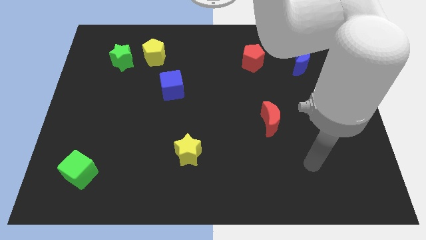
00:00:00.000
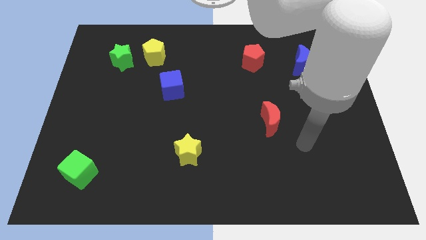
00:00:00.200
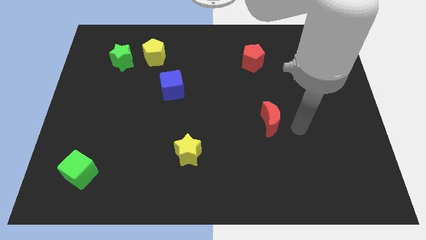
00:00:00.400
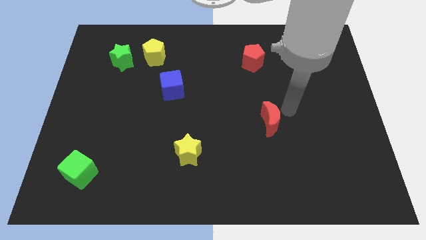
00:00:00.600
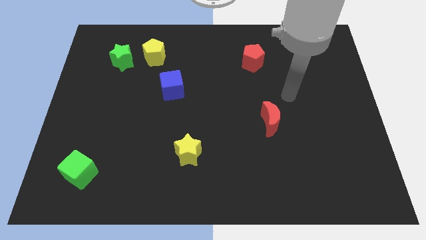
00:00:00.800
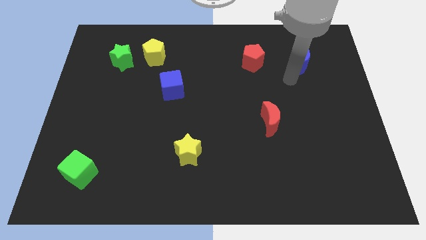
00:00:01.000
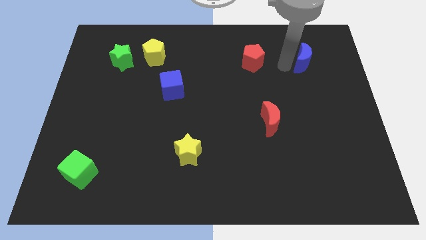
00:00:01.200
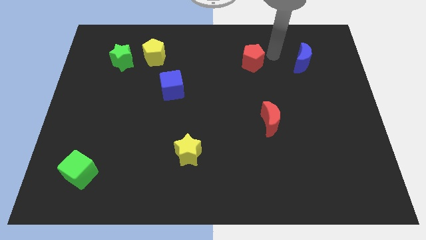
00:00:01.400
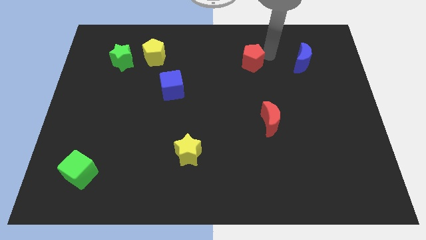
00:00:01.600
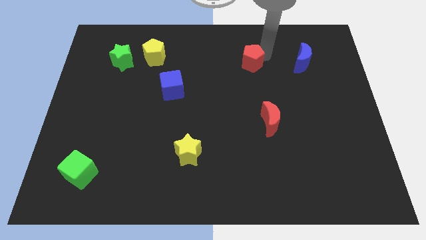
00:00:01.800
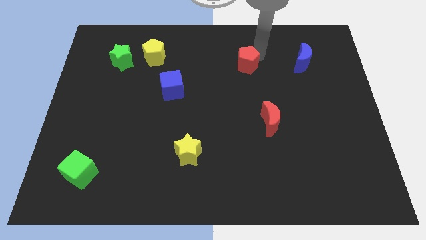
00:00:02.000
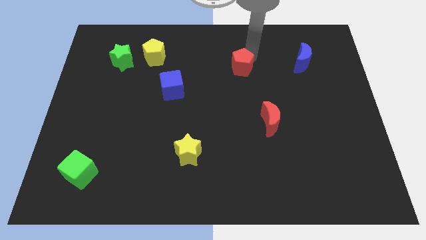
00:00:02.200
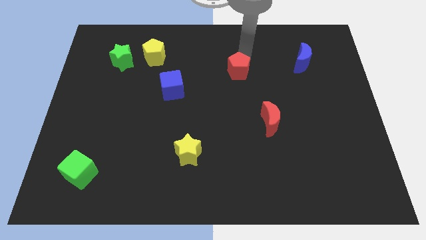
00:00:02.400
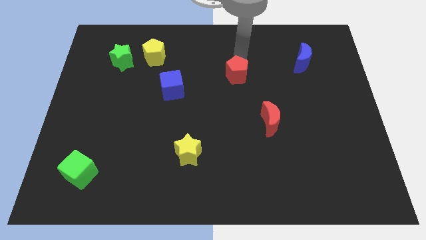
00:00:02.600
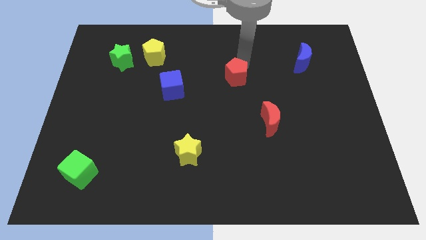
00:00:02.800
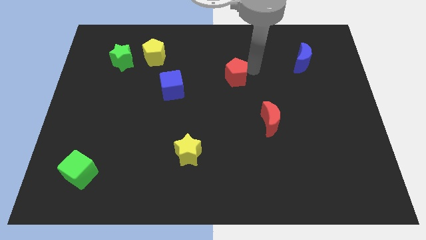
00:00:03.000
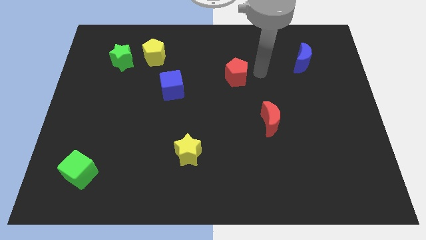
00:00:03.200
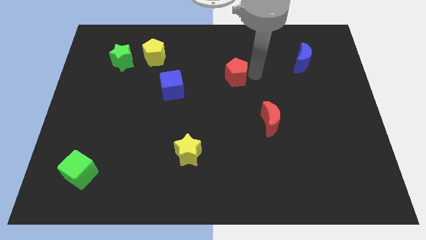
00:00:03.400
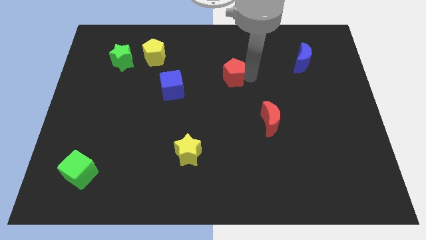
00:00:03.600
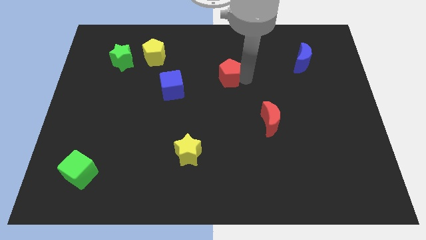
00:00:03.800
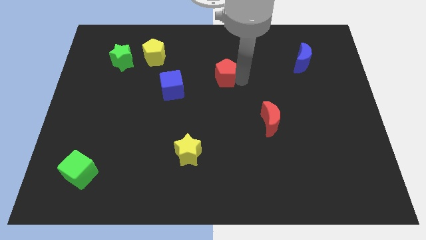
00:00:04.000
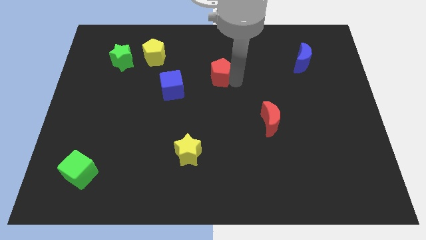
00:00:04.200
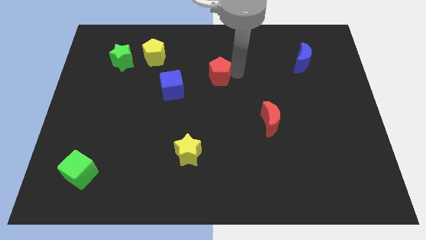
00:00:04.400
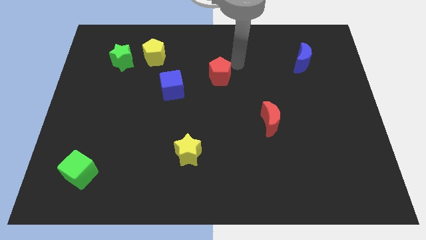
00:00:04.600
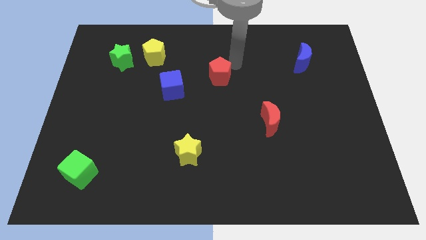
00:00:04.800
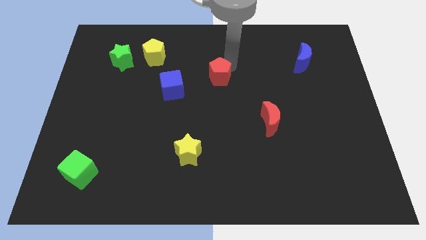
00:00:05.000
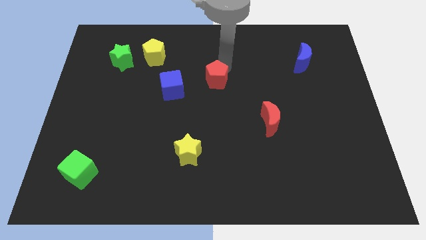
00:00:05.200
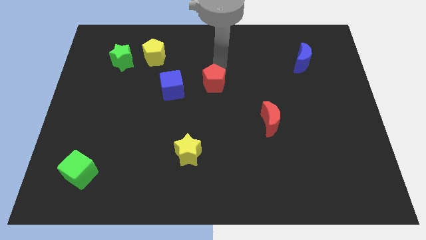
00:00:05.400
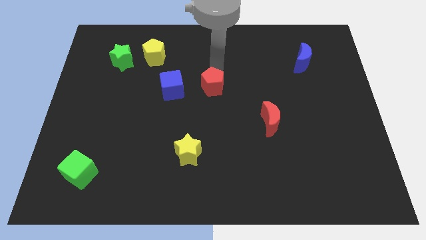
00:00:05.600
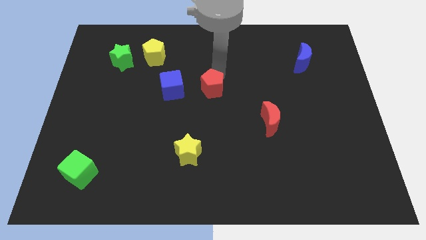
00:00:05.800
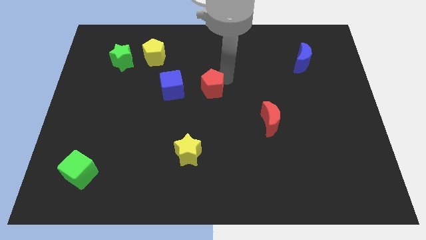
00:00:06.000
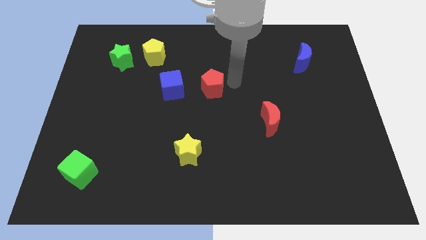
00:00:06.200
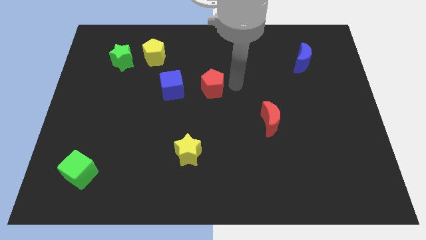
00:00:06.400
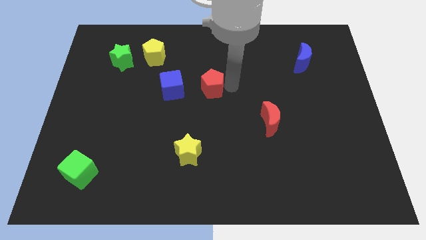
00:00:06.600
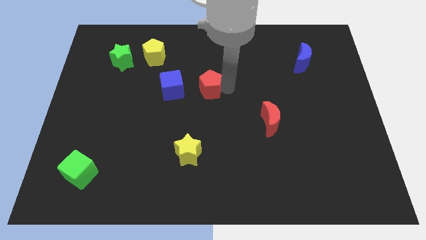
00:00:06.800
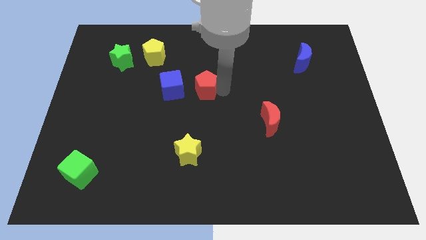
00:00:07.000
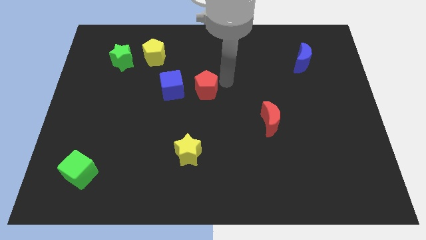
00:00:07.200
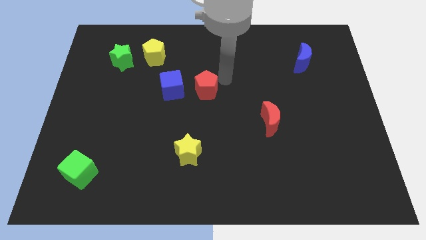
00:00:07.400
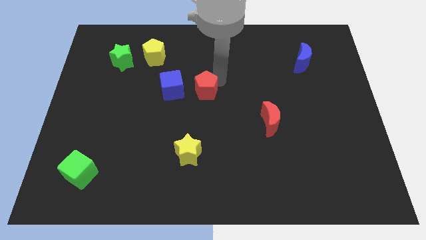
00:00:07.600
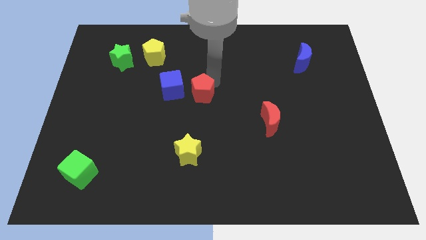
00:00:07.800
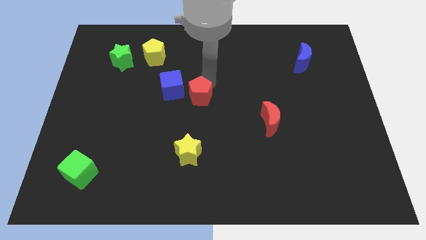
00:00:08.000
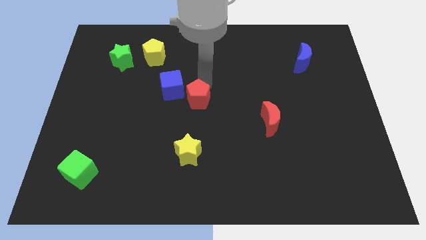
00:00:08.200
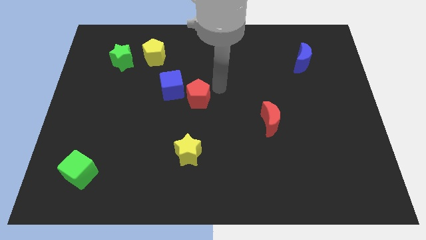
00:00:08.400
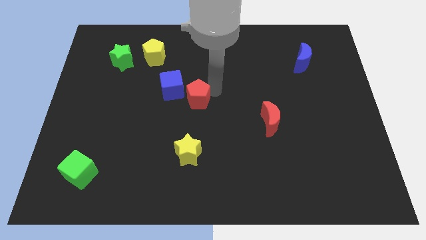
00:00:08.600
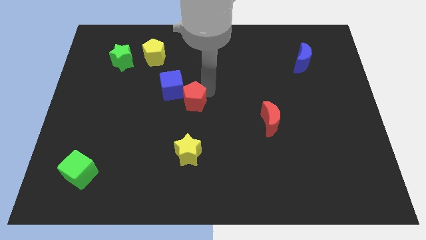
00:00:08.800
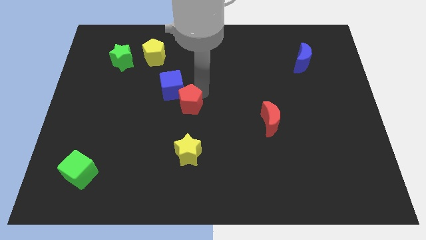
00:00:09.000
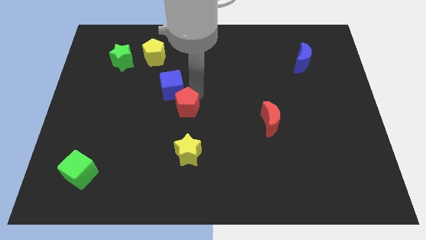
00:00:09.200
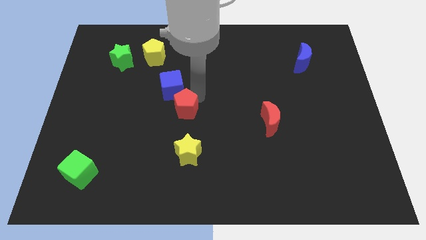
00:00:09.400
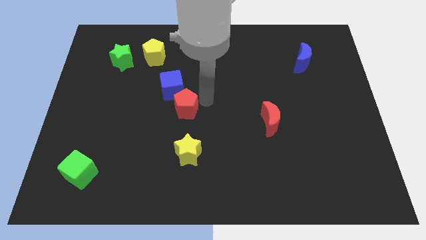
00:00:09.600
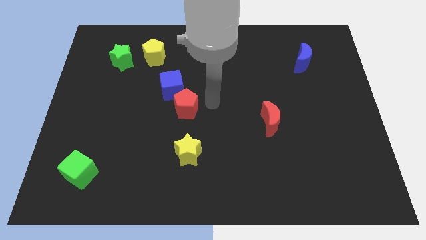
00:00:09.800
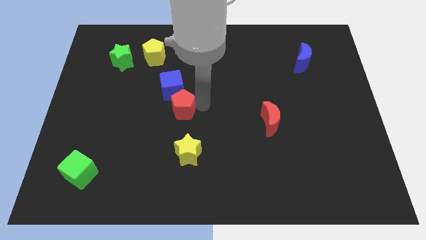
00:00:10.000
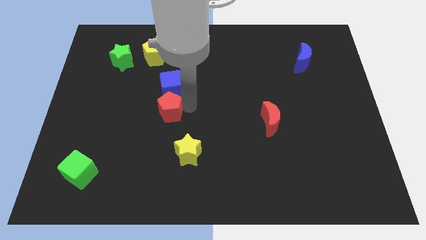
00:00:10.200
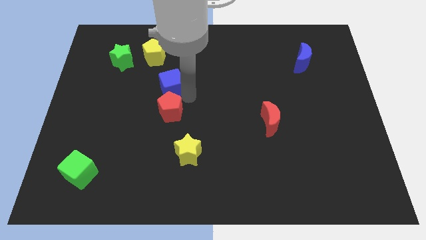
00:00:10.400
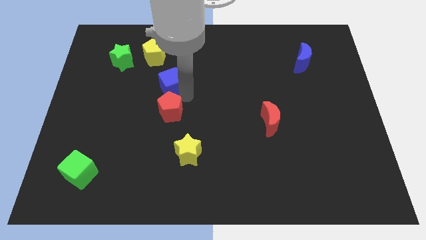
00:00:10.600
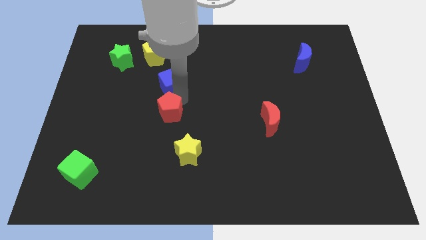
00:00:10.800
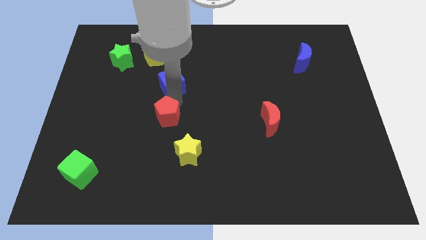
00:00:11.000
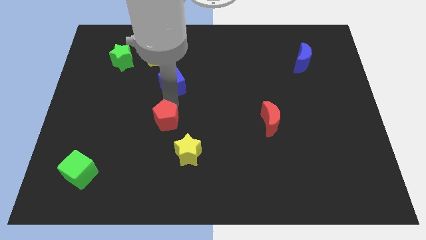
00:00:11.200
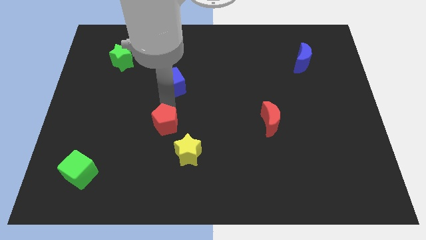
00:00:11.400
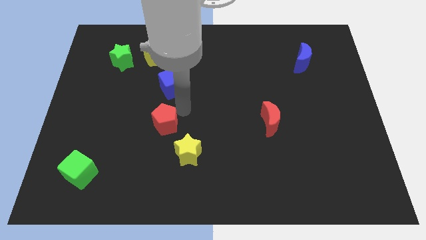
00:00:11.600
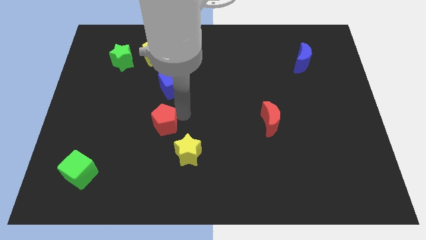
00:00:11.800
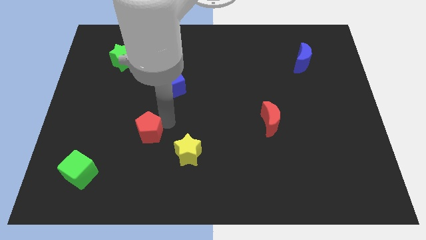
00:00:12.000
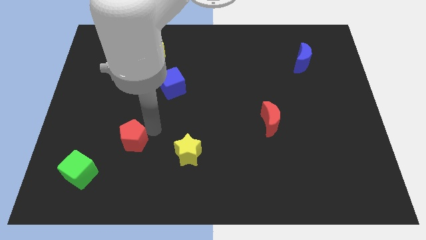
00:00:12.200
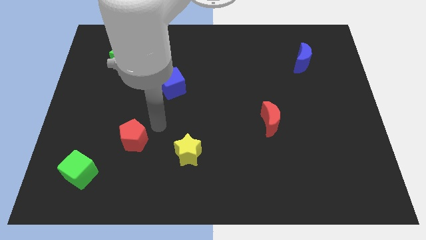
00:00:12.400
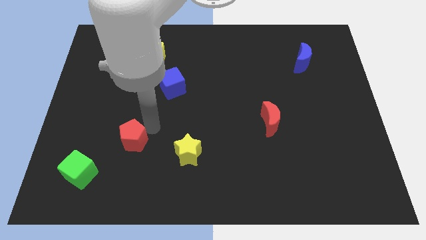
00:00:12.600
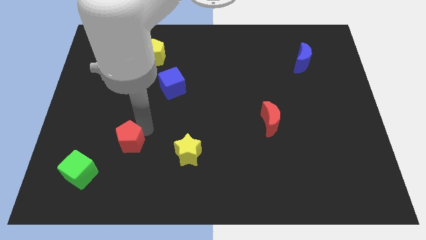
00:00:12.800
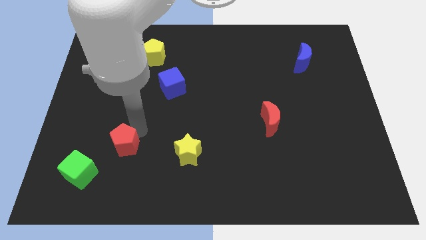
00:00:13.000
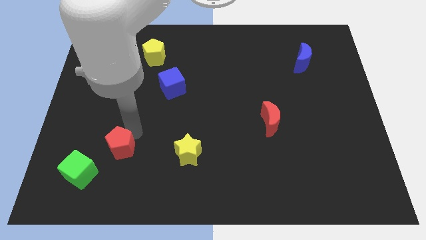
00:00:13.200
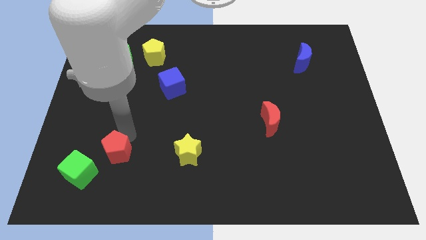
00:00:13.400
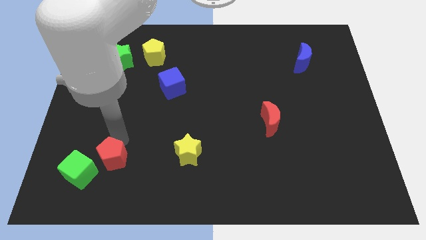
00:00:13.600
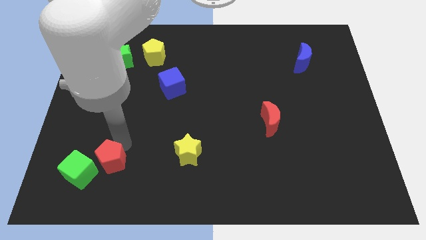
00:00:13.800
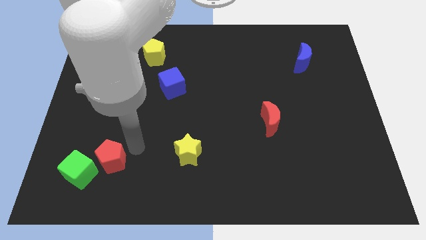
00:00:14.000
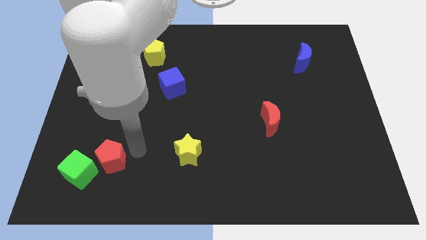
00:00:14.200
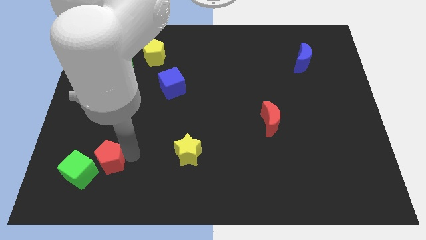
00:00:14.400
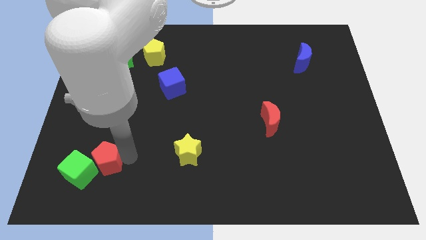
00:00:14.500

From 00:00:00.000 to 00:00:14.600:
put the red pentagon to the green cube
